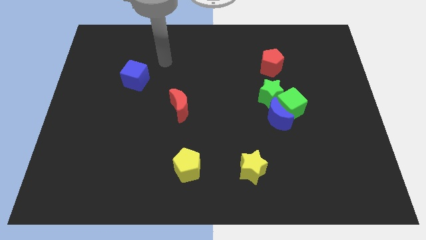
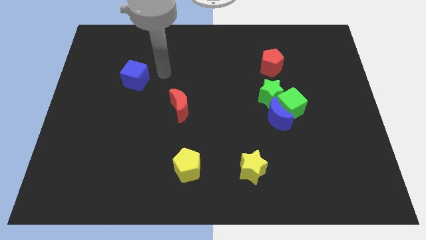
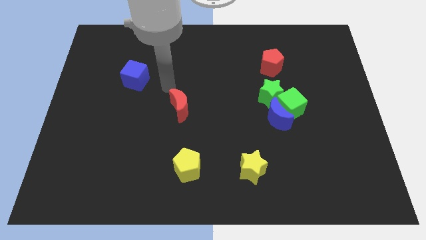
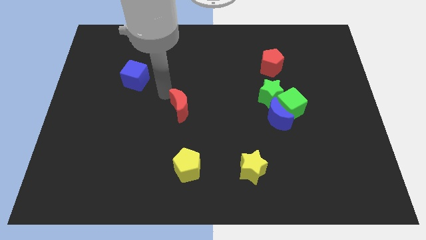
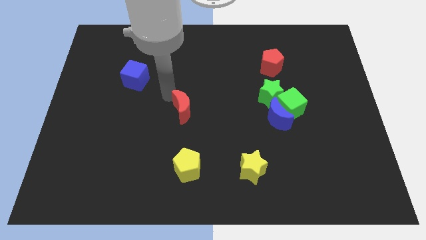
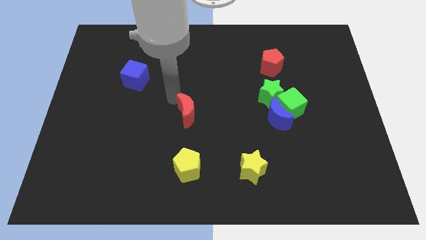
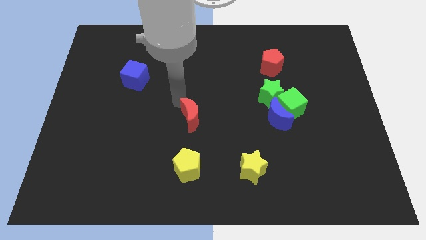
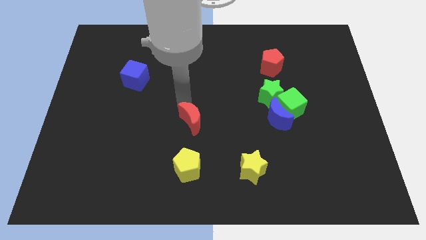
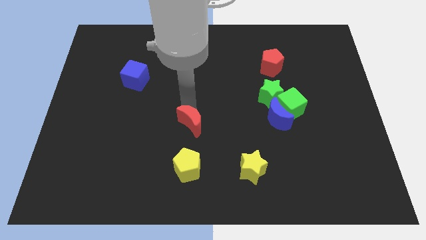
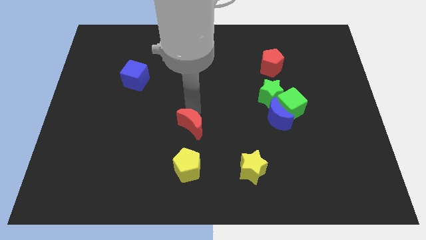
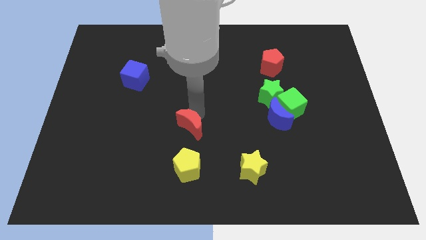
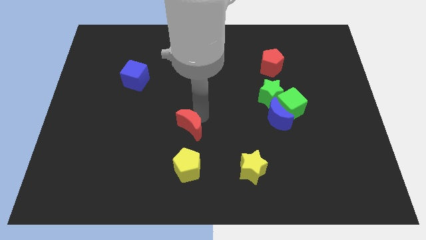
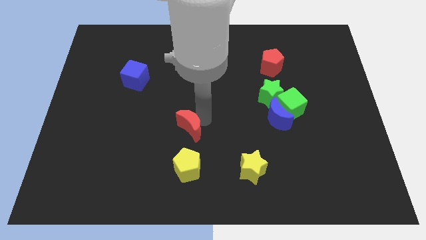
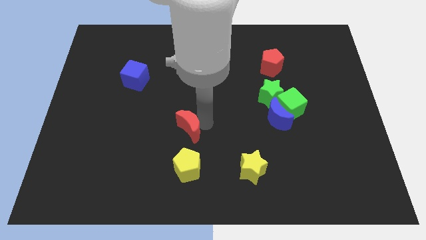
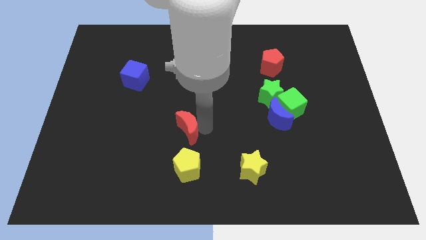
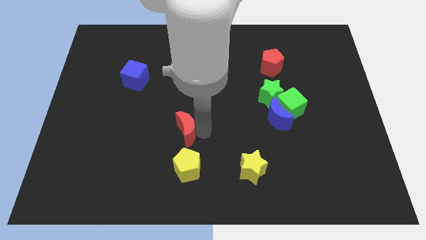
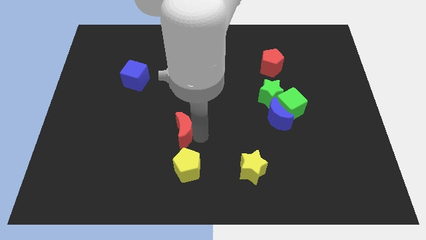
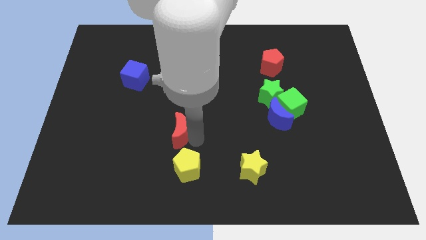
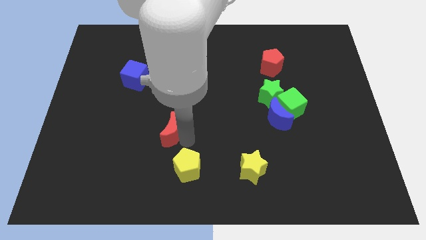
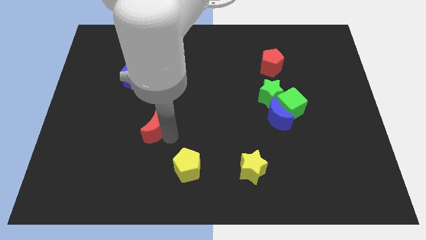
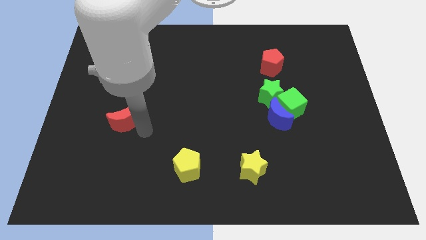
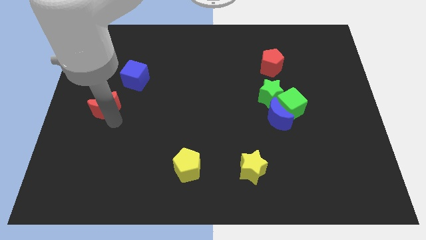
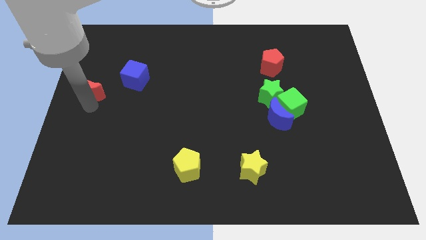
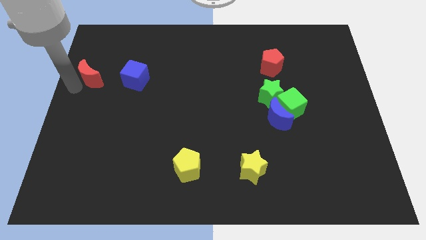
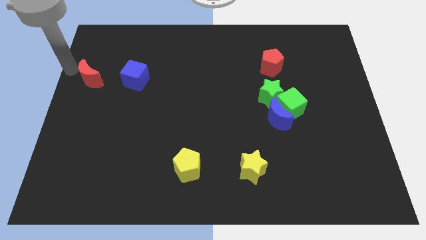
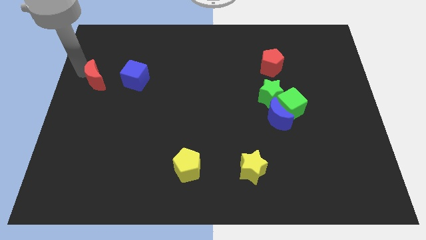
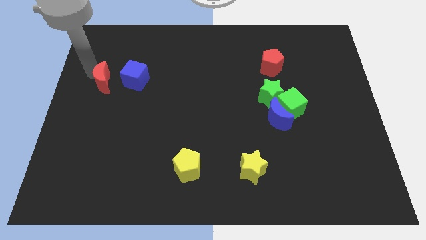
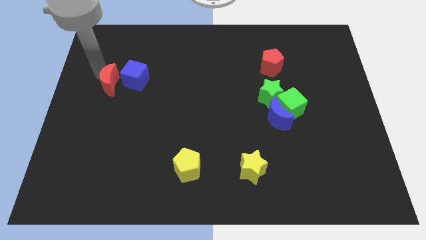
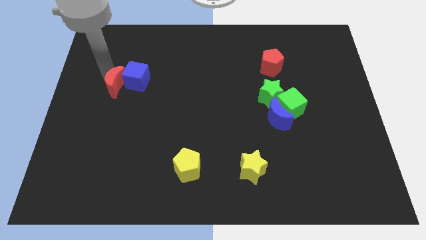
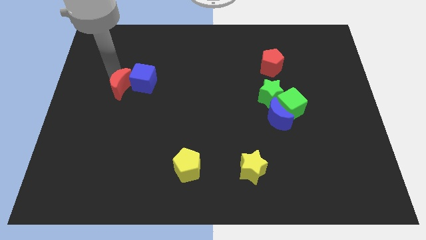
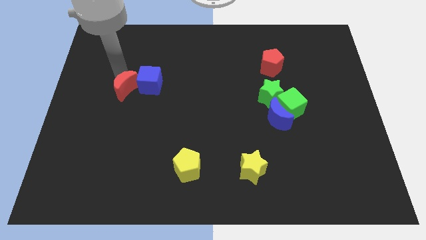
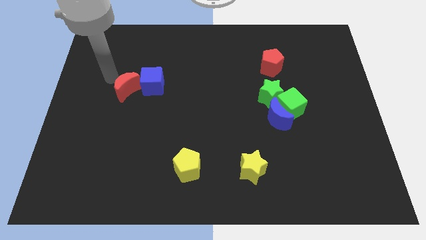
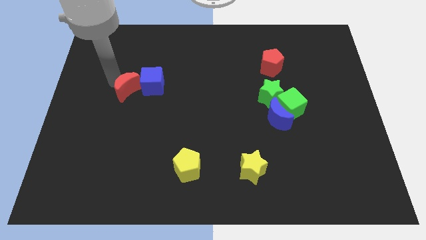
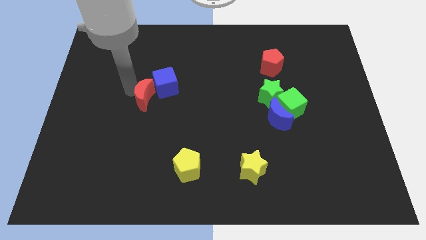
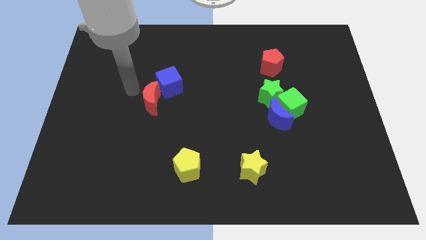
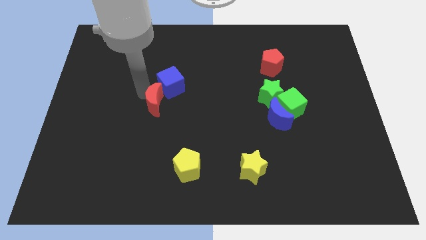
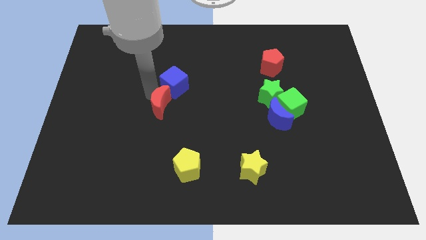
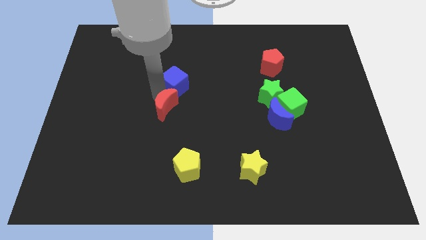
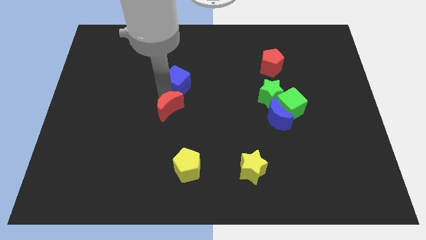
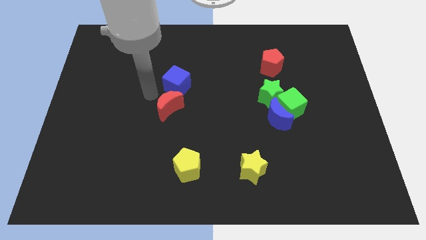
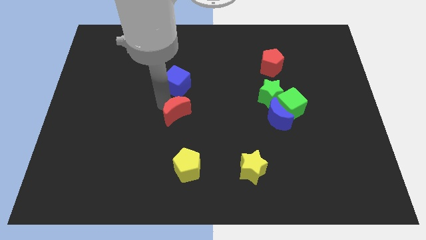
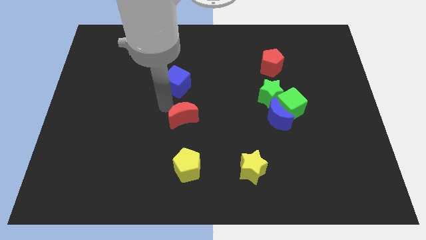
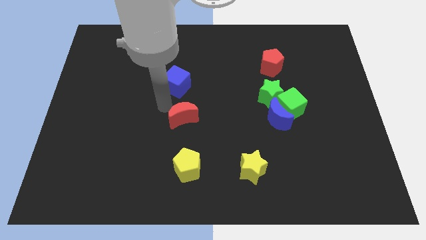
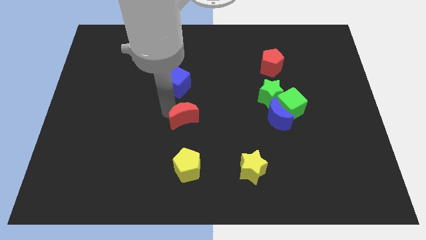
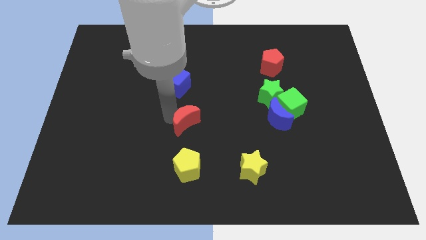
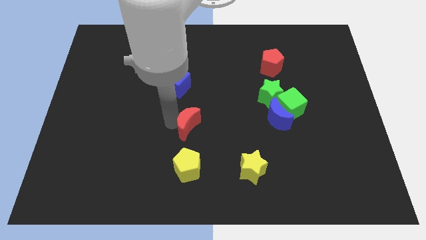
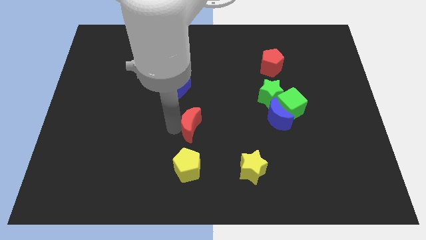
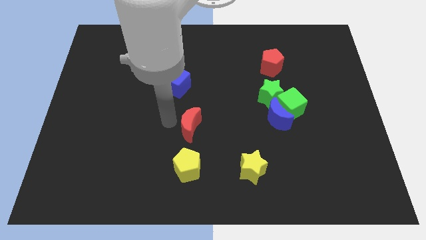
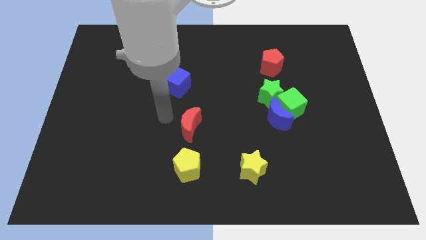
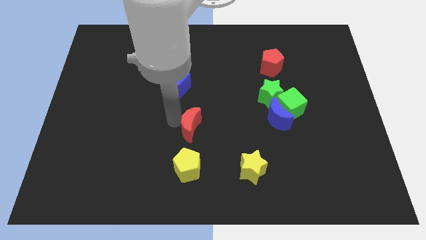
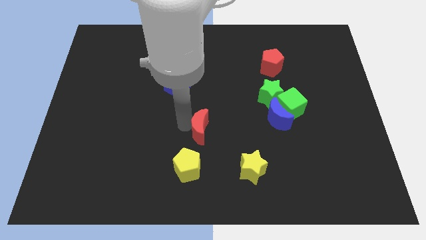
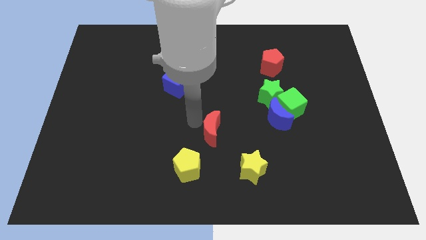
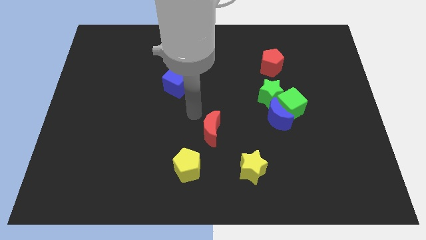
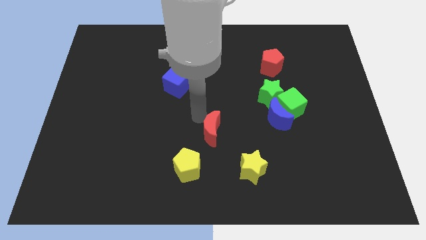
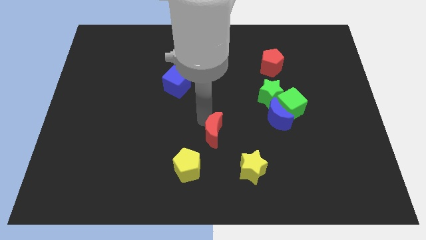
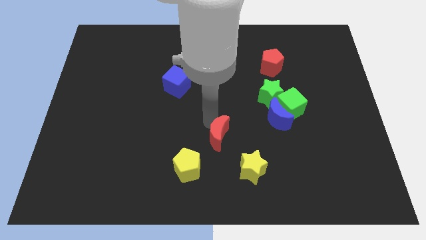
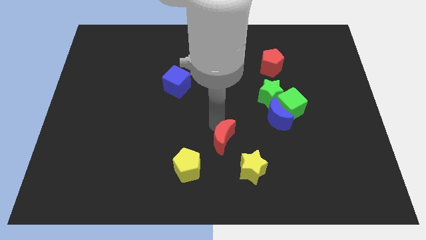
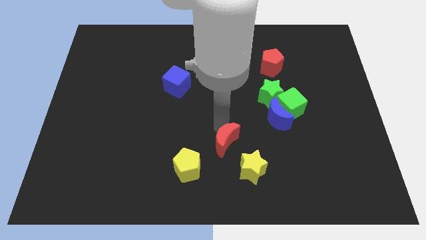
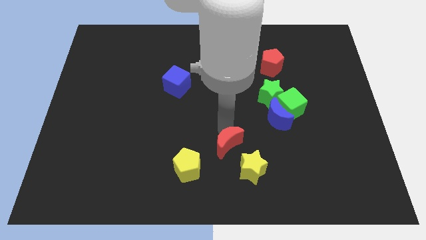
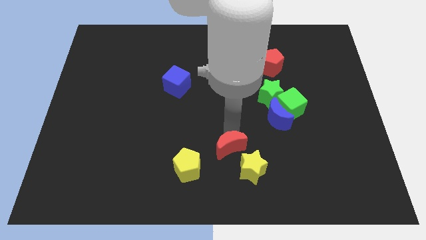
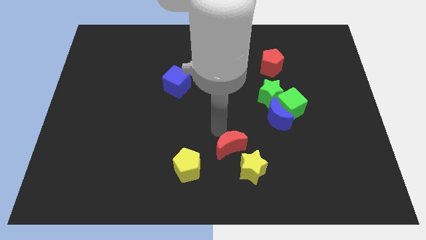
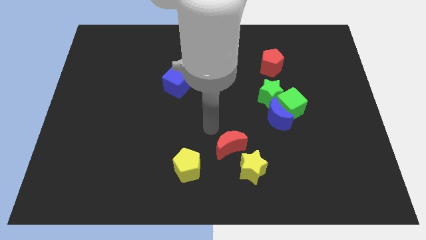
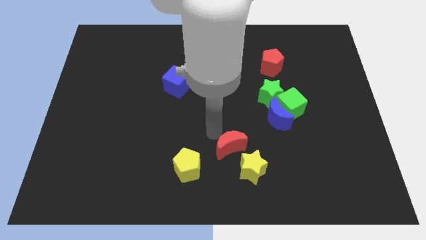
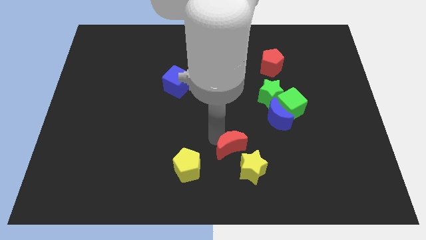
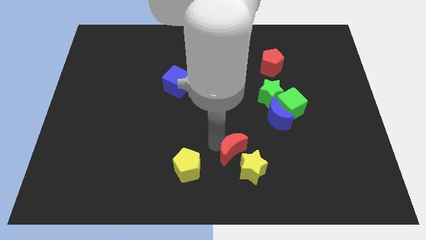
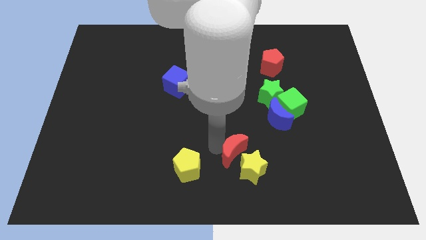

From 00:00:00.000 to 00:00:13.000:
move the red moon to the yellow star

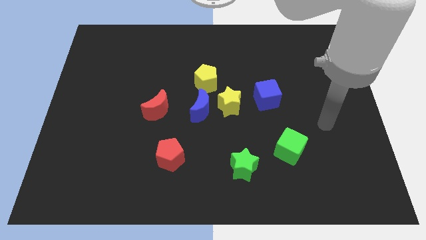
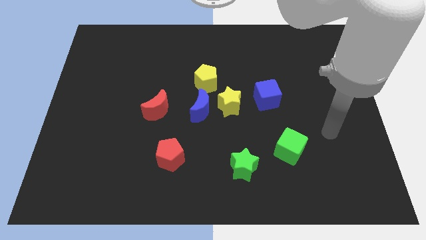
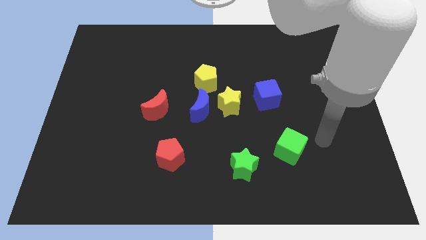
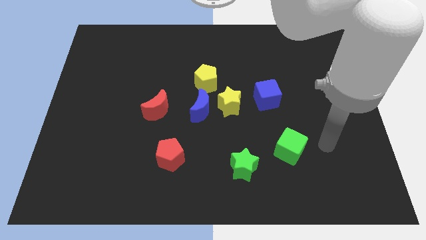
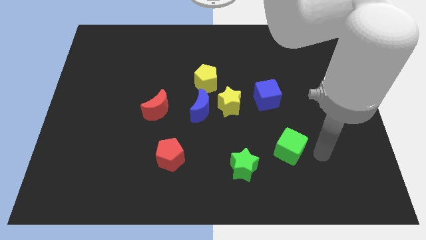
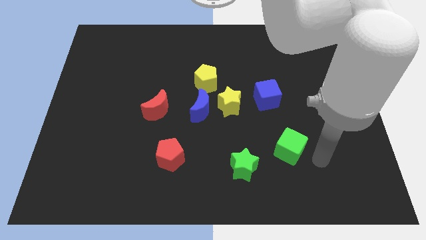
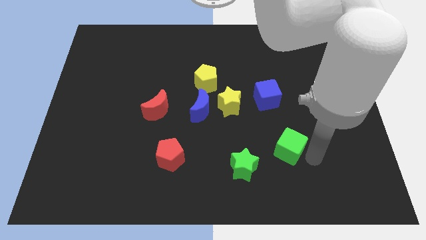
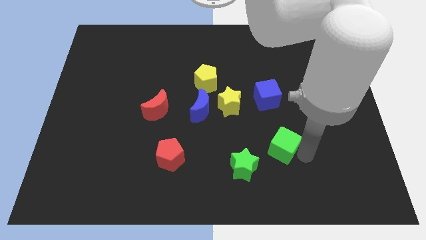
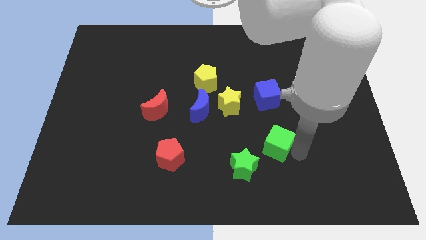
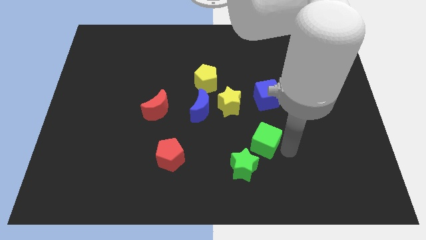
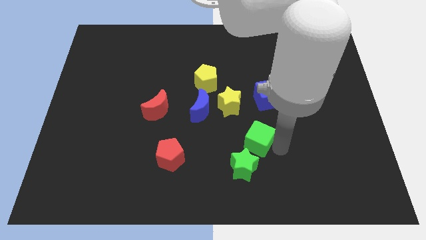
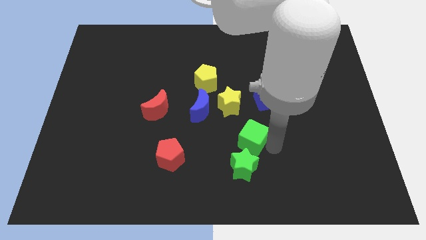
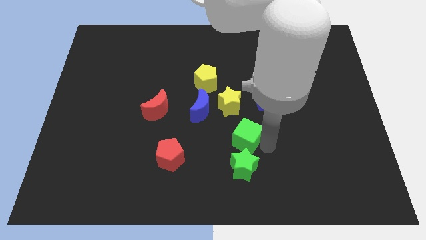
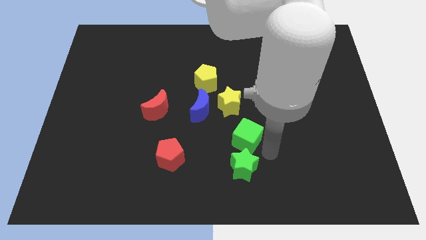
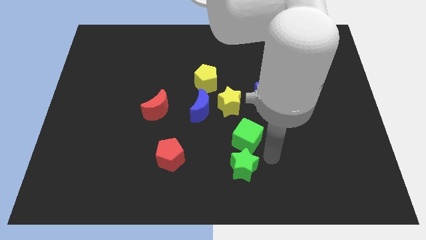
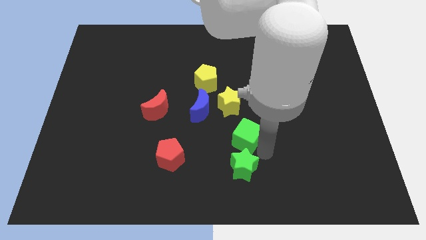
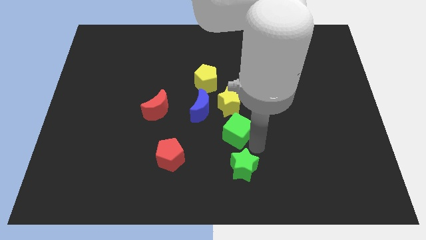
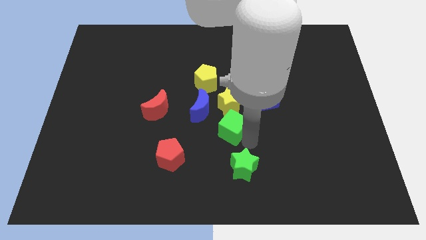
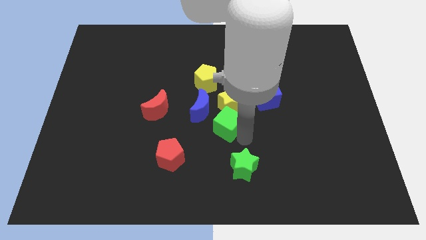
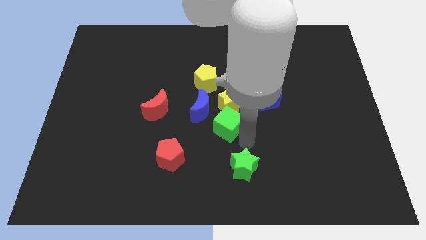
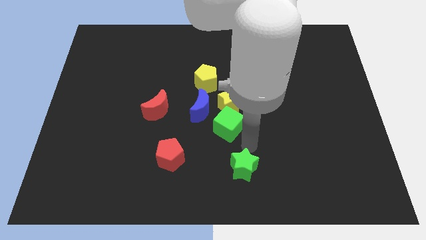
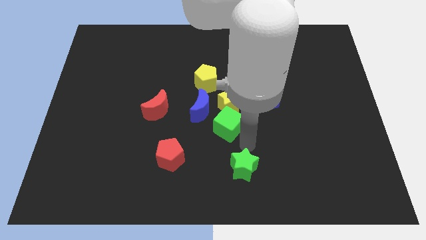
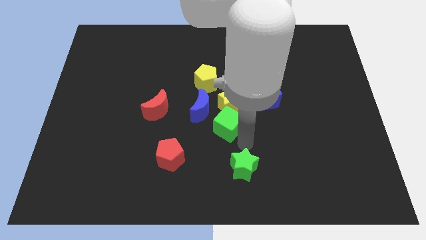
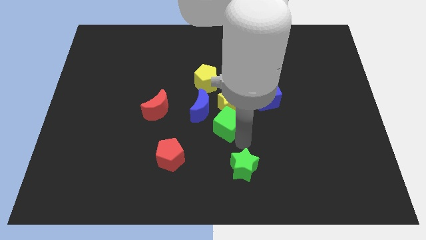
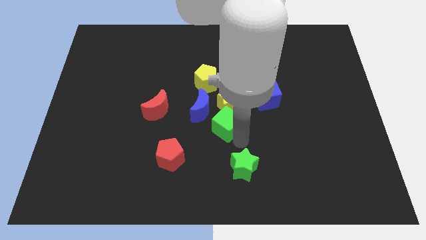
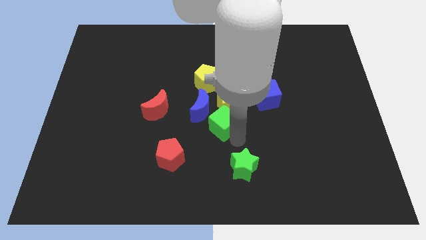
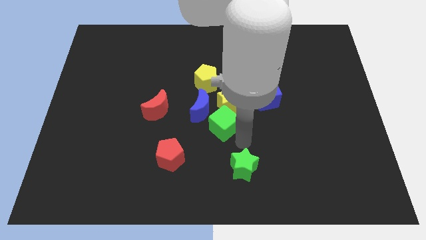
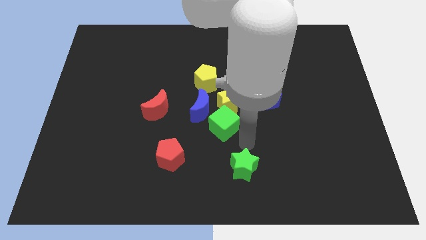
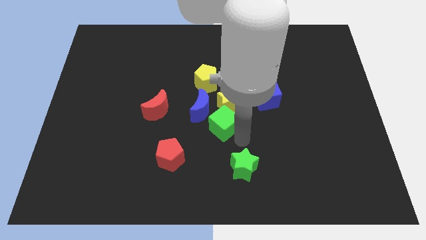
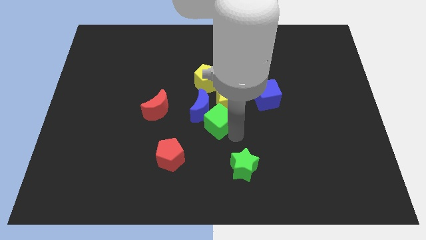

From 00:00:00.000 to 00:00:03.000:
slide the green cube to the blue moon
